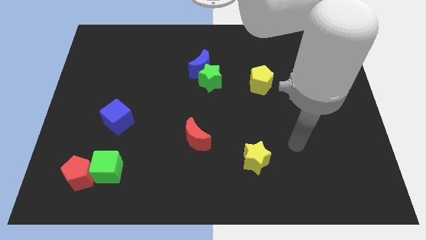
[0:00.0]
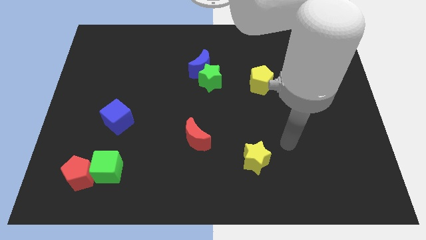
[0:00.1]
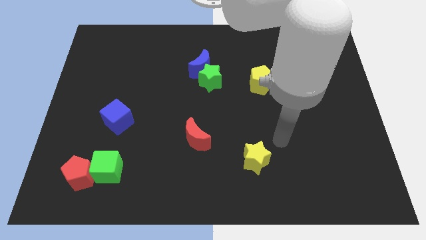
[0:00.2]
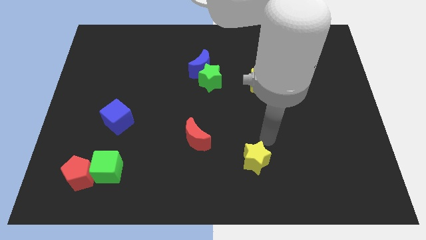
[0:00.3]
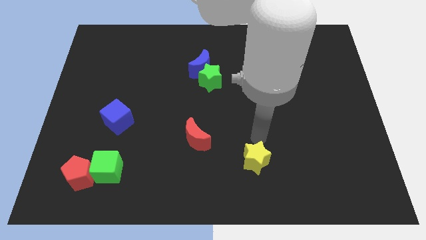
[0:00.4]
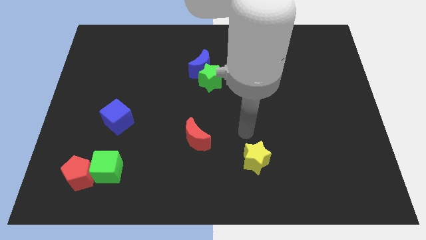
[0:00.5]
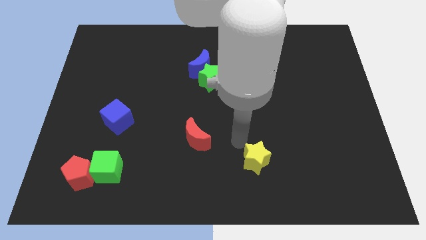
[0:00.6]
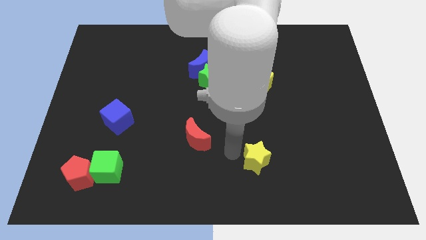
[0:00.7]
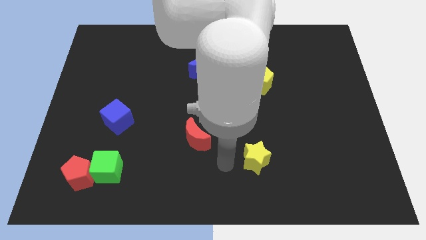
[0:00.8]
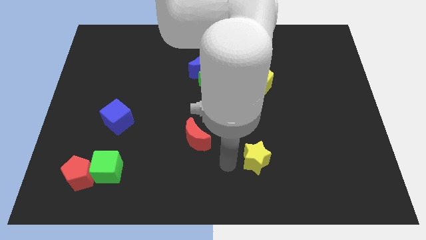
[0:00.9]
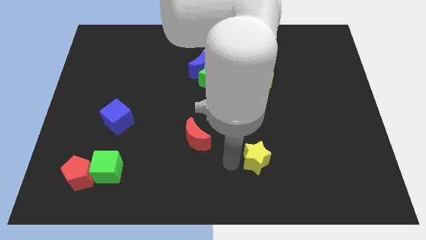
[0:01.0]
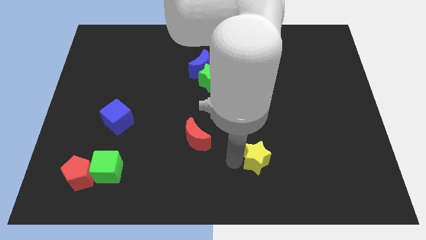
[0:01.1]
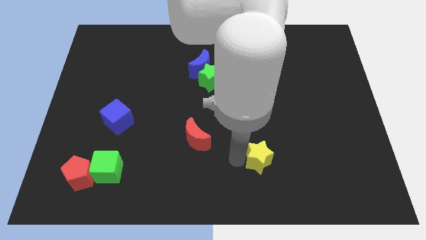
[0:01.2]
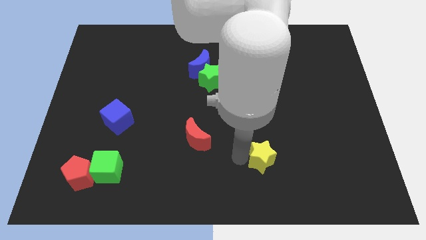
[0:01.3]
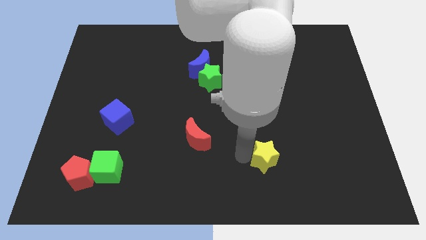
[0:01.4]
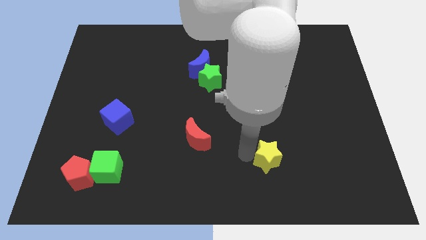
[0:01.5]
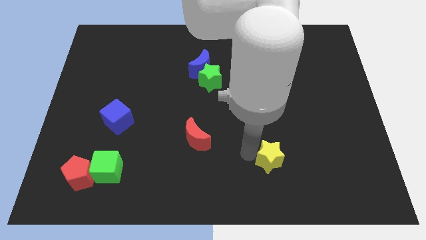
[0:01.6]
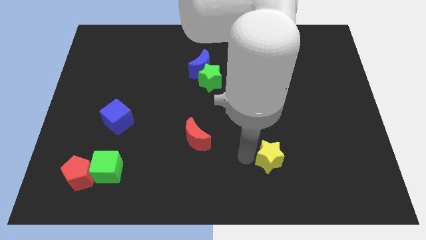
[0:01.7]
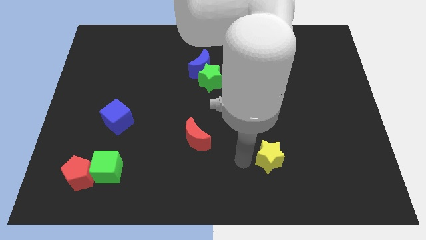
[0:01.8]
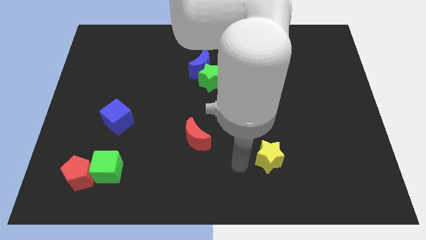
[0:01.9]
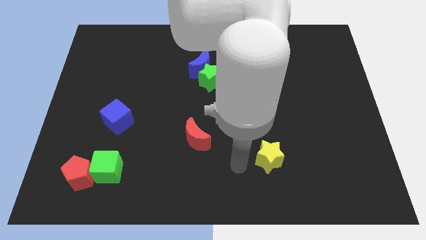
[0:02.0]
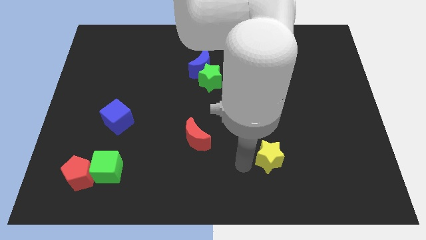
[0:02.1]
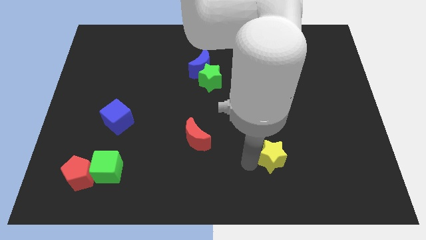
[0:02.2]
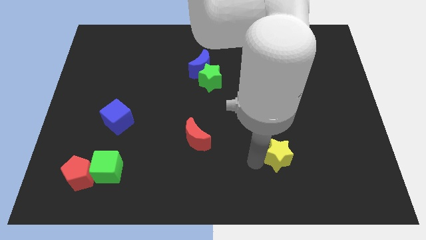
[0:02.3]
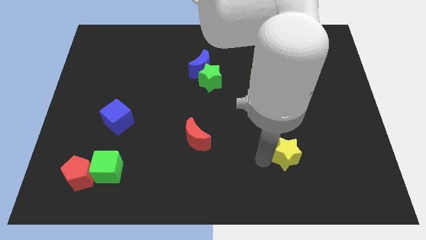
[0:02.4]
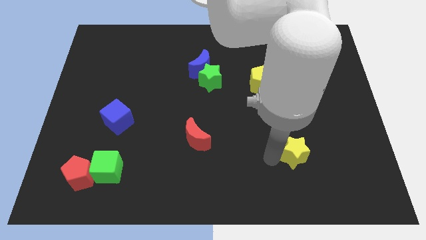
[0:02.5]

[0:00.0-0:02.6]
slide the yellow star a little bit to the right

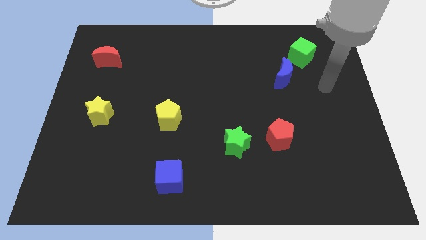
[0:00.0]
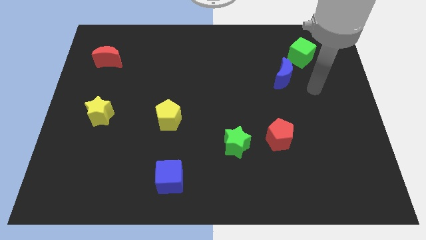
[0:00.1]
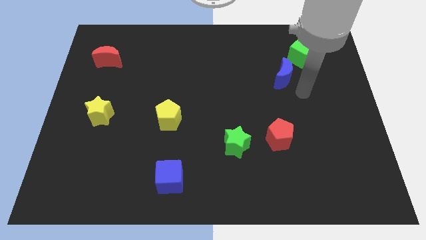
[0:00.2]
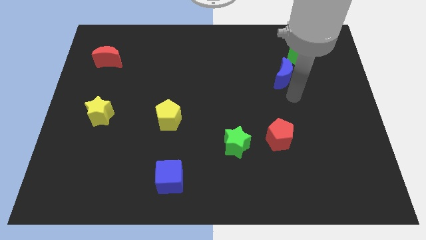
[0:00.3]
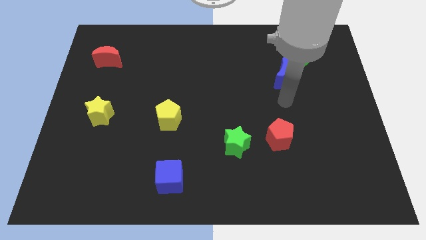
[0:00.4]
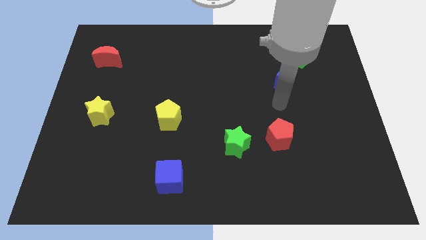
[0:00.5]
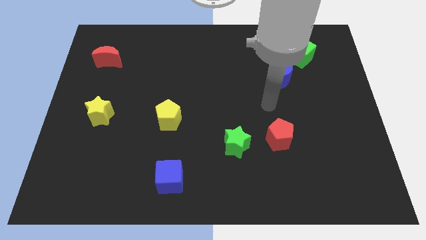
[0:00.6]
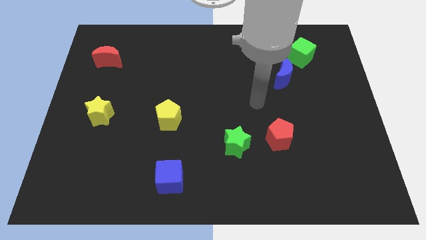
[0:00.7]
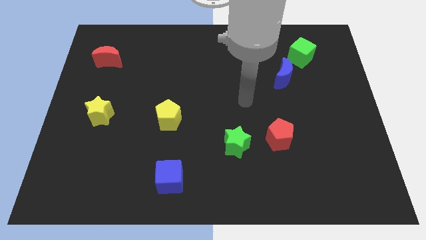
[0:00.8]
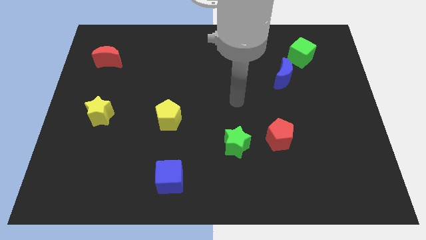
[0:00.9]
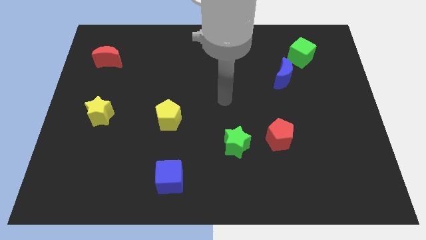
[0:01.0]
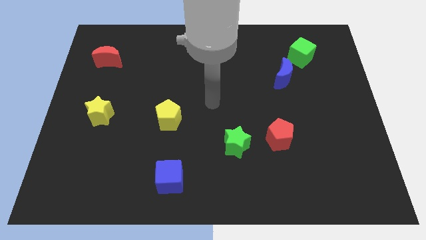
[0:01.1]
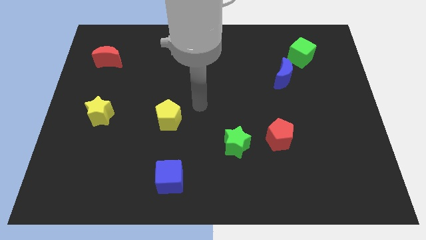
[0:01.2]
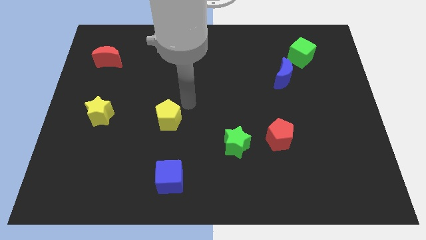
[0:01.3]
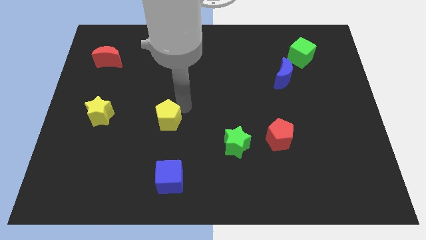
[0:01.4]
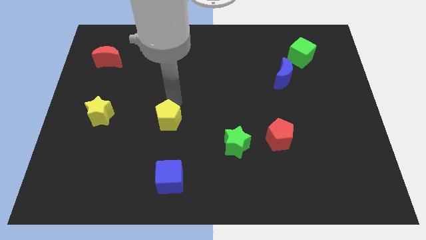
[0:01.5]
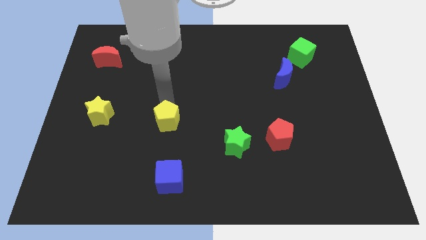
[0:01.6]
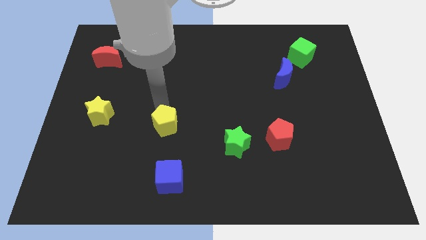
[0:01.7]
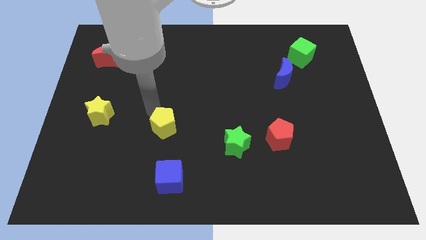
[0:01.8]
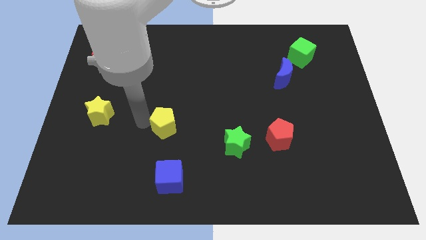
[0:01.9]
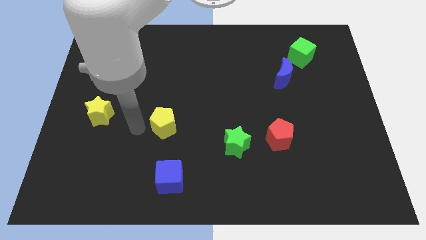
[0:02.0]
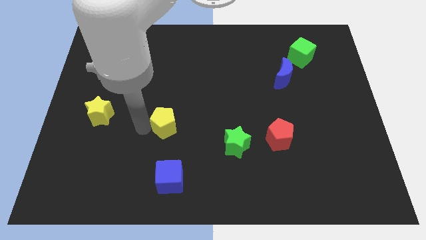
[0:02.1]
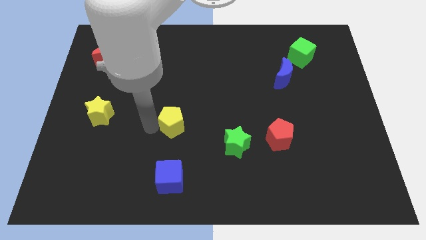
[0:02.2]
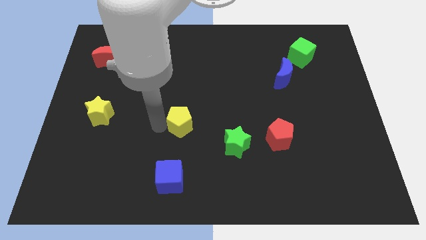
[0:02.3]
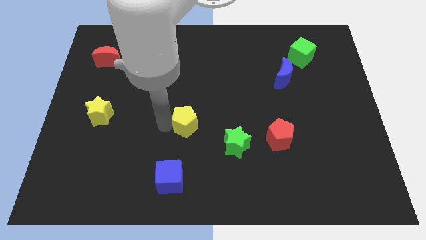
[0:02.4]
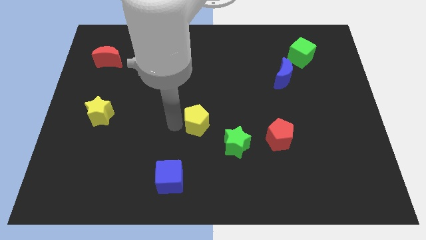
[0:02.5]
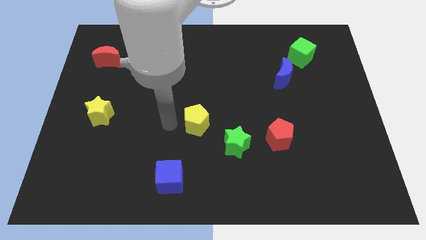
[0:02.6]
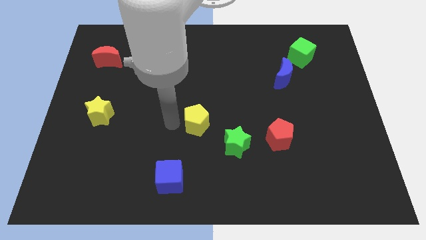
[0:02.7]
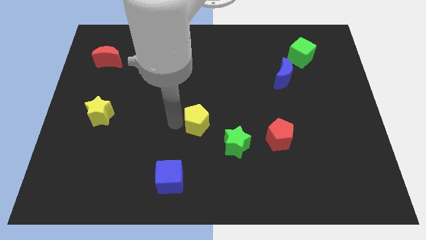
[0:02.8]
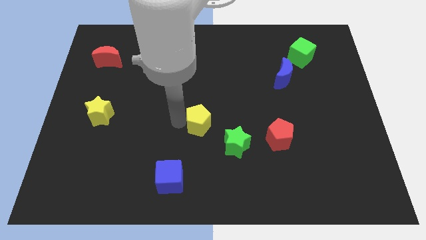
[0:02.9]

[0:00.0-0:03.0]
slightly move the yellow pentagon to the right

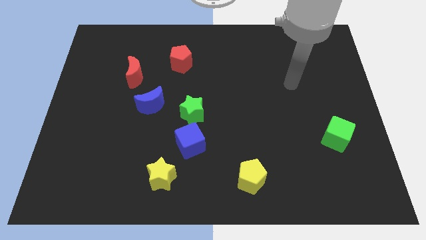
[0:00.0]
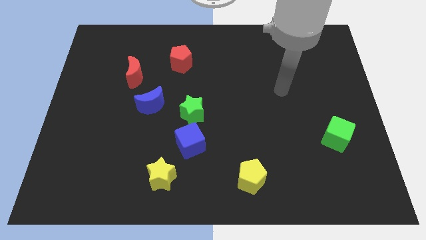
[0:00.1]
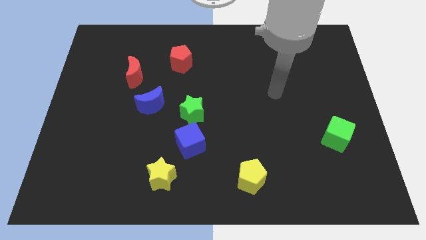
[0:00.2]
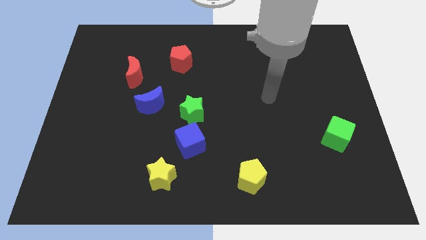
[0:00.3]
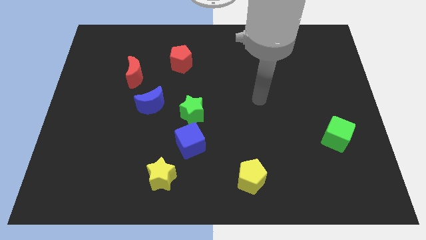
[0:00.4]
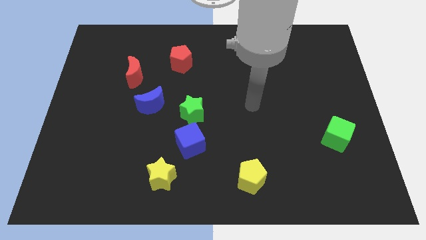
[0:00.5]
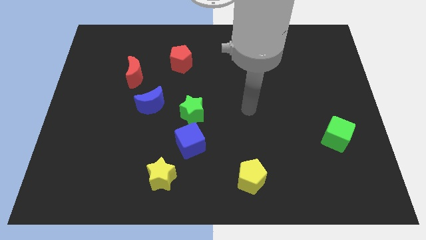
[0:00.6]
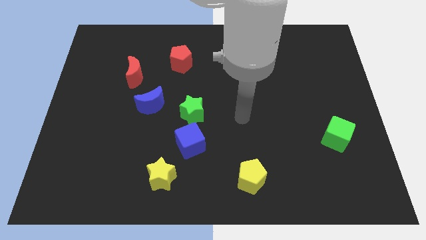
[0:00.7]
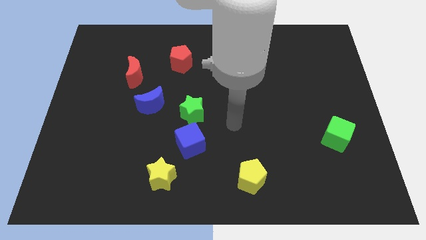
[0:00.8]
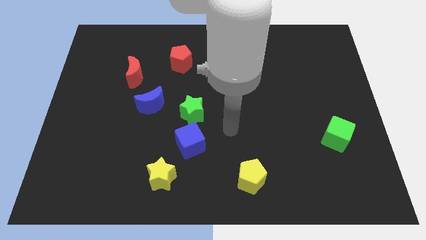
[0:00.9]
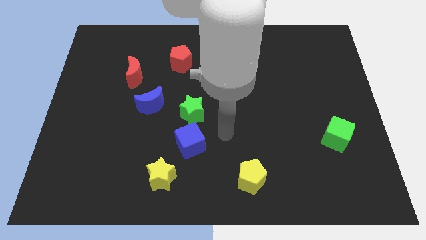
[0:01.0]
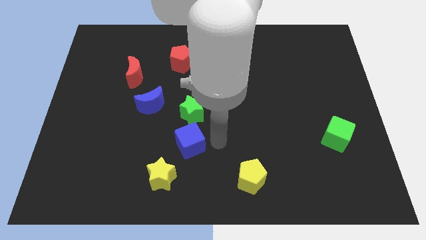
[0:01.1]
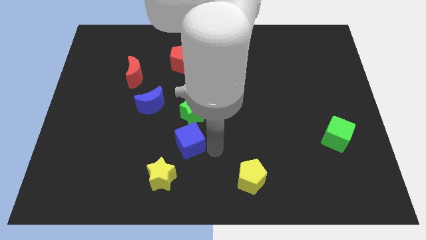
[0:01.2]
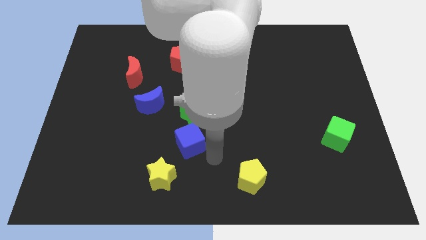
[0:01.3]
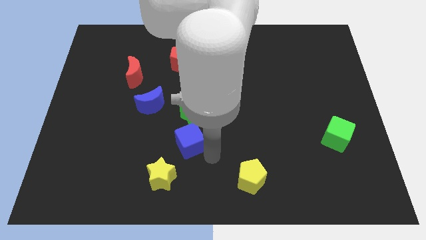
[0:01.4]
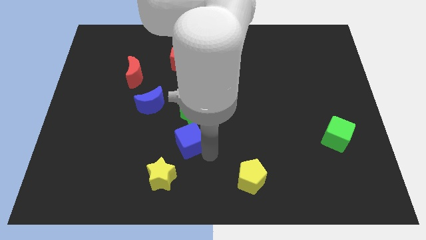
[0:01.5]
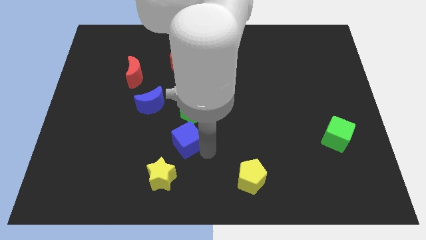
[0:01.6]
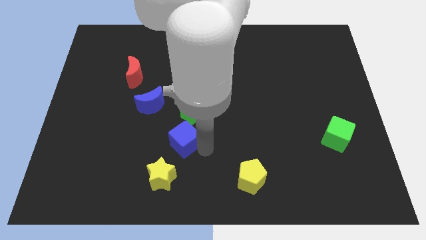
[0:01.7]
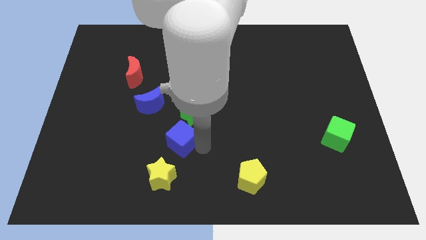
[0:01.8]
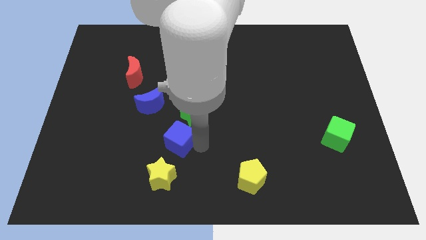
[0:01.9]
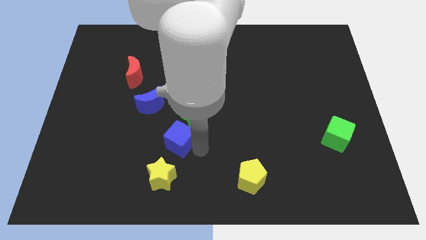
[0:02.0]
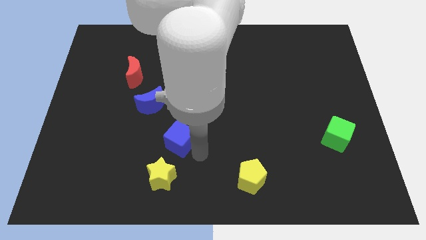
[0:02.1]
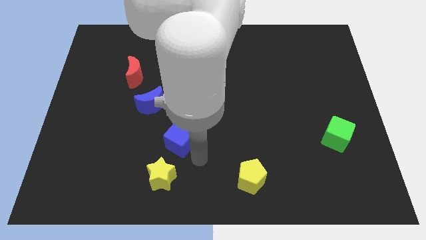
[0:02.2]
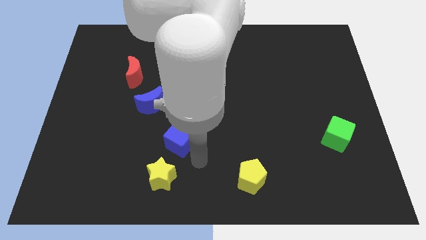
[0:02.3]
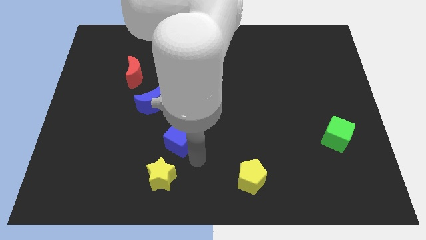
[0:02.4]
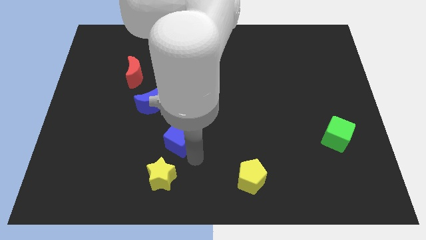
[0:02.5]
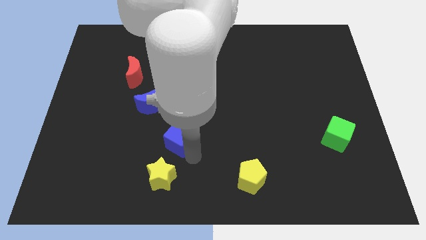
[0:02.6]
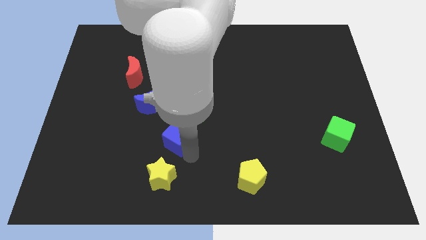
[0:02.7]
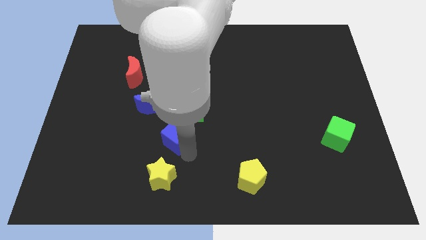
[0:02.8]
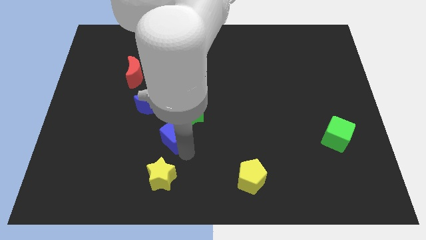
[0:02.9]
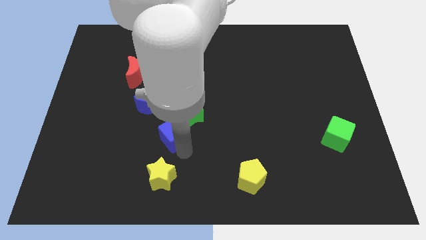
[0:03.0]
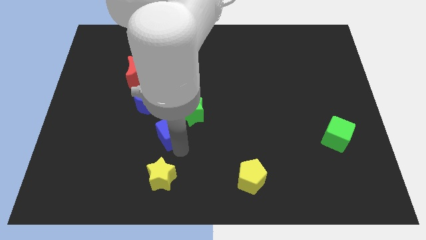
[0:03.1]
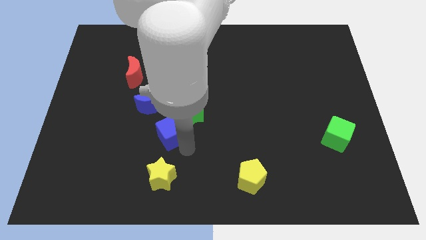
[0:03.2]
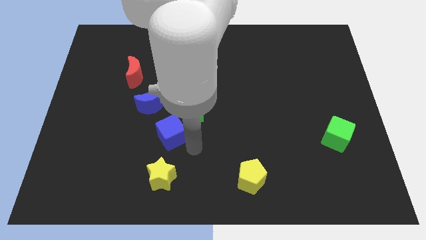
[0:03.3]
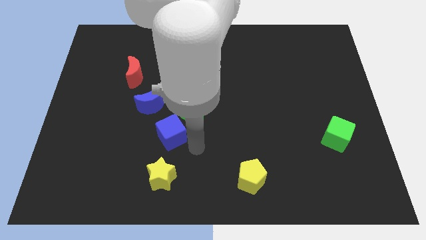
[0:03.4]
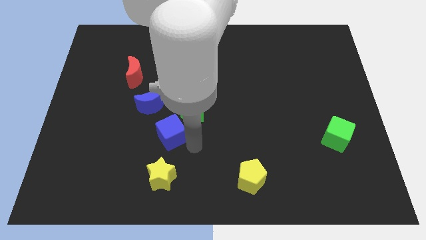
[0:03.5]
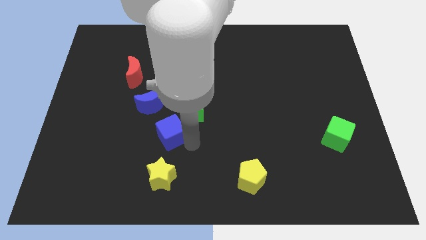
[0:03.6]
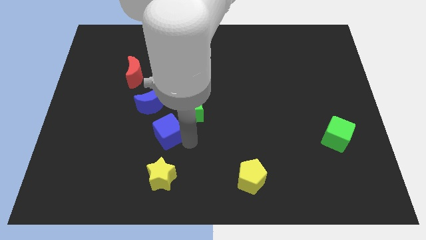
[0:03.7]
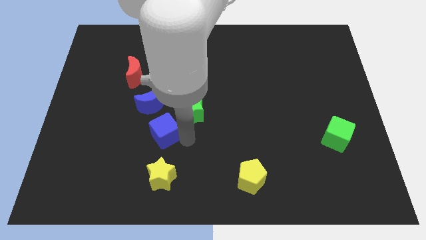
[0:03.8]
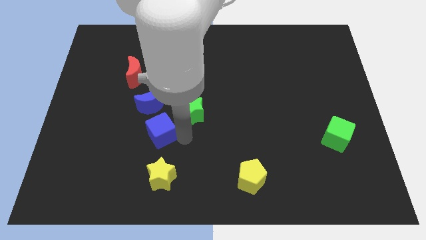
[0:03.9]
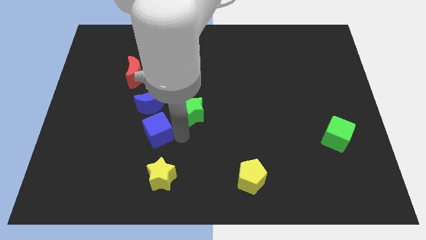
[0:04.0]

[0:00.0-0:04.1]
slightly move the blue cube up and to the left diagonally
